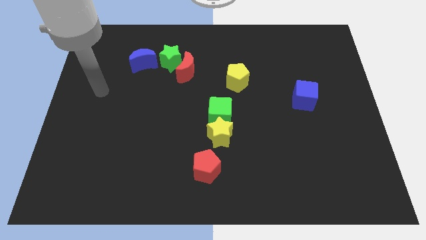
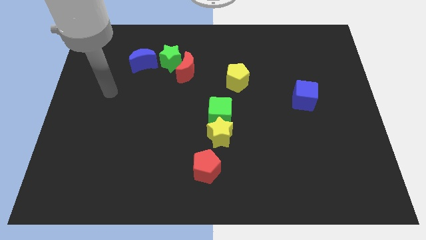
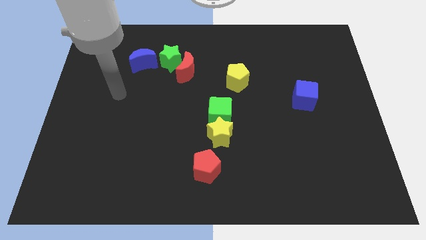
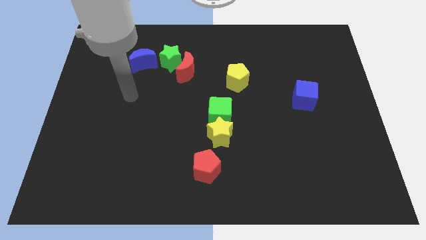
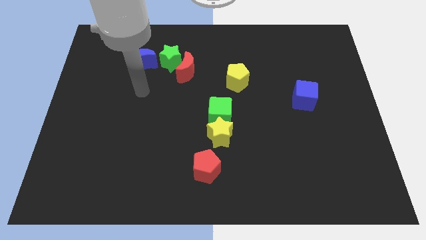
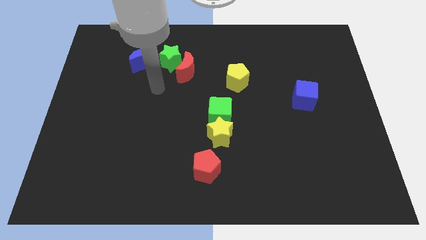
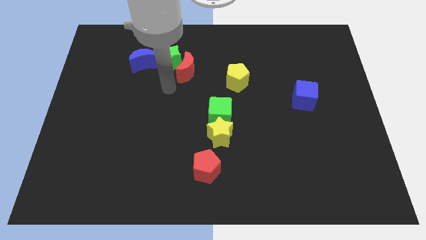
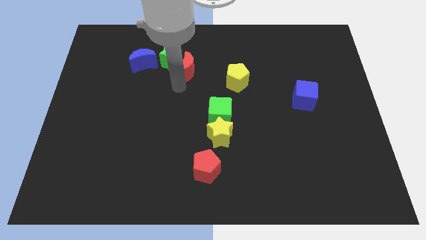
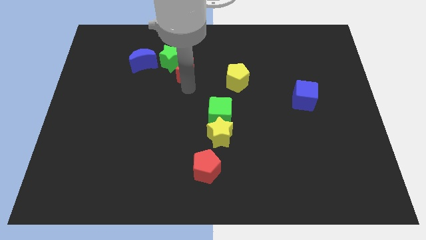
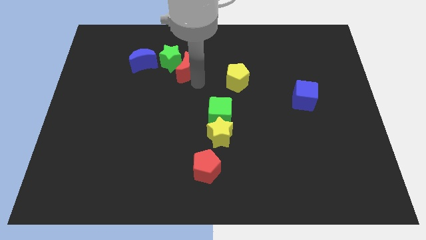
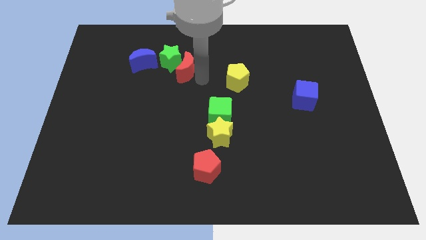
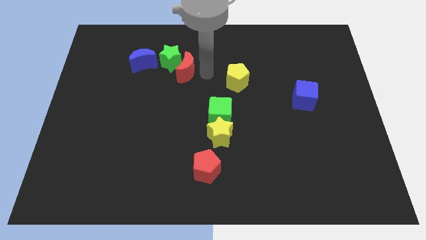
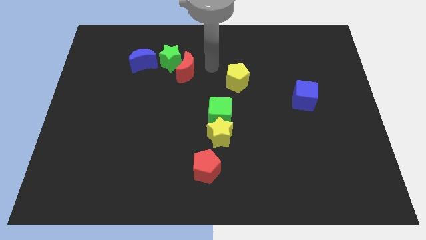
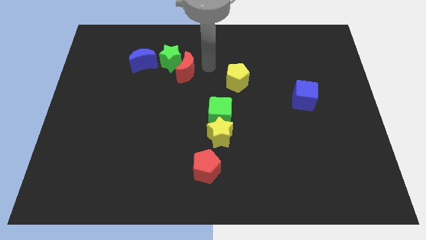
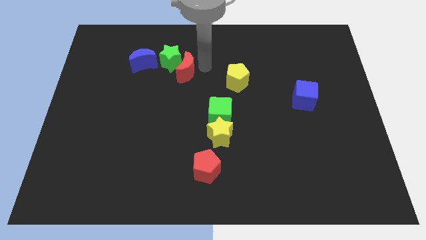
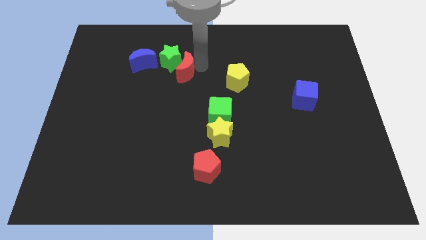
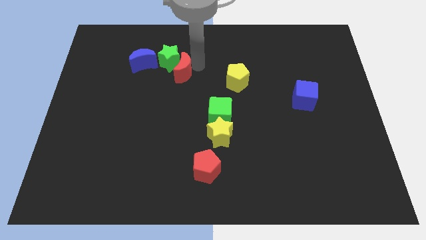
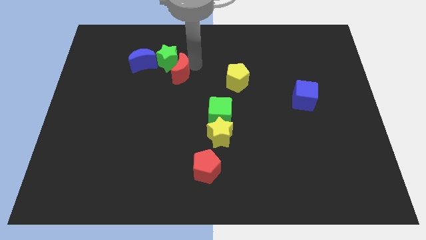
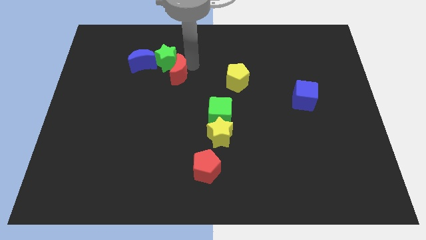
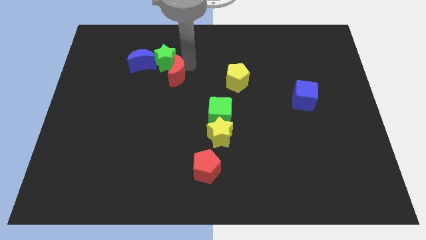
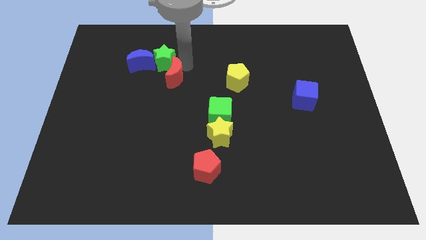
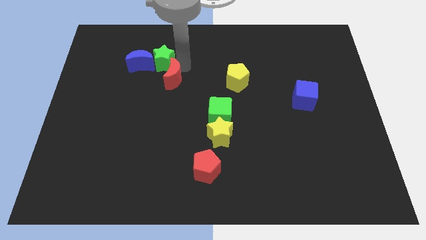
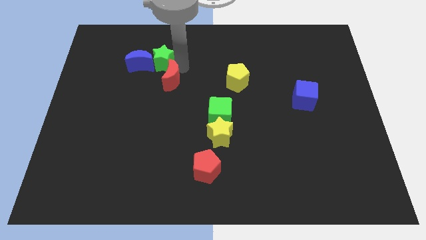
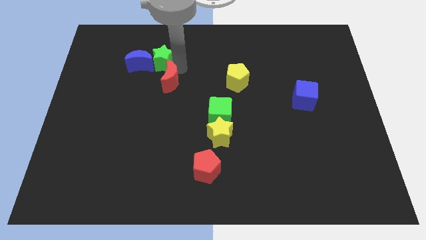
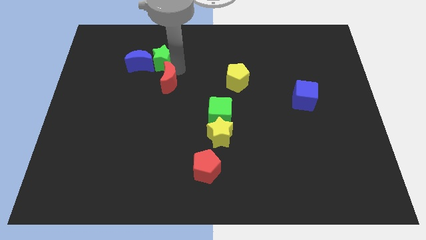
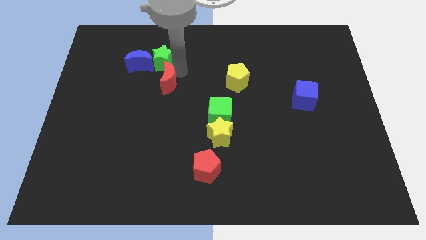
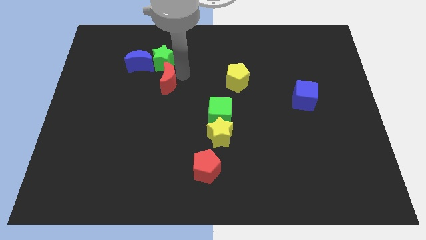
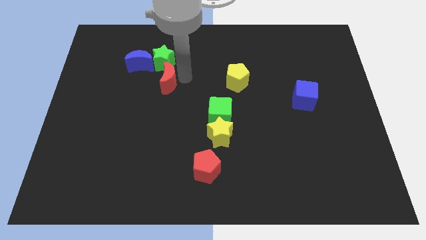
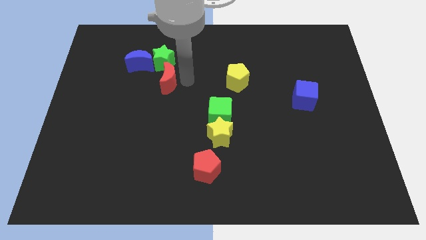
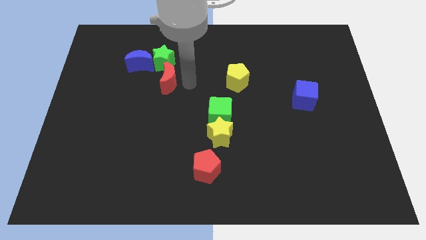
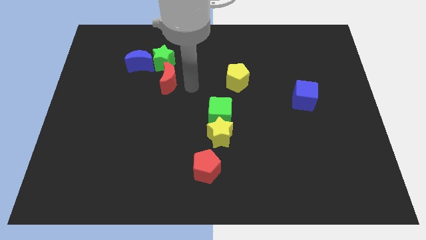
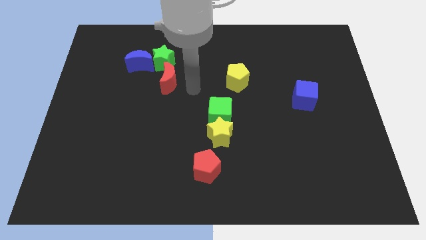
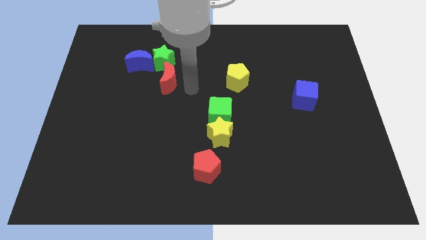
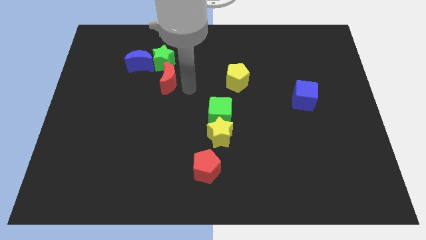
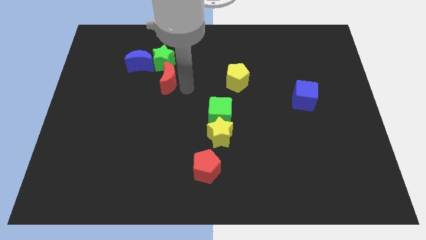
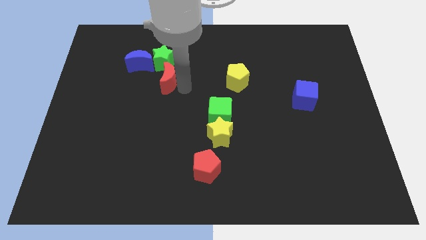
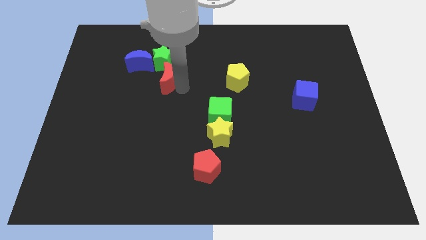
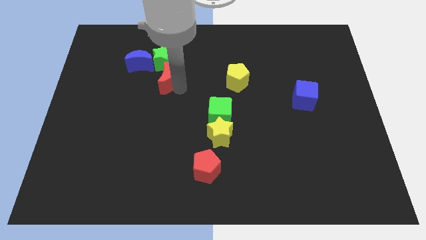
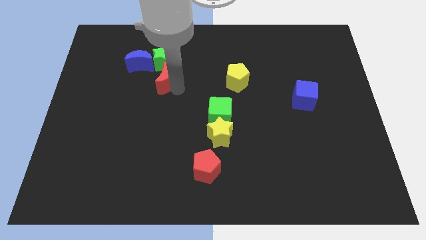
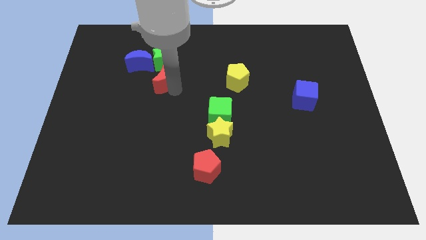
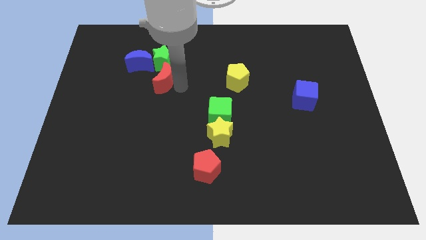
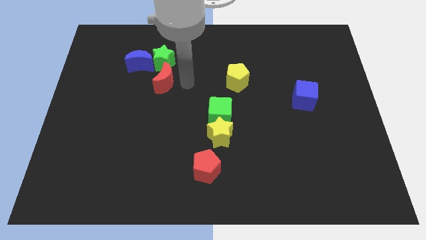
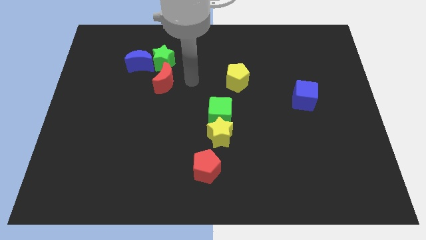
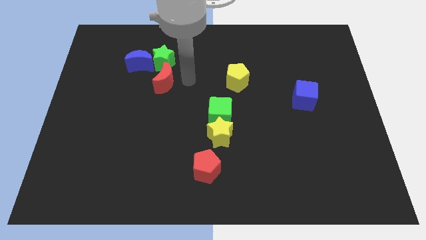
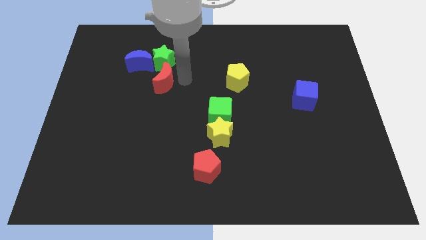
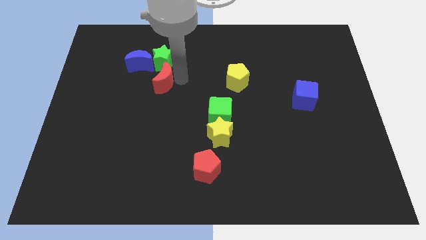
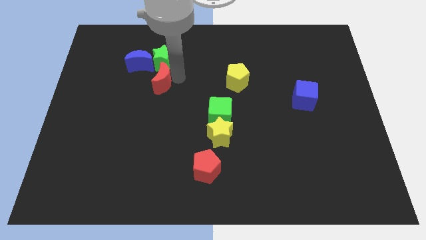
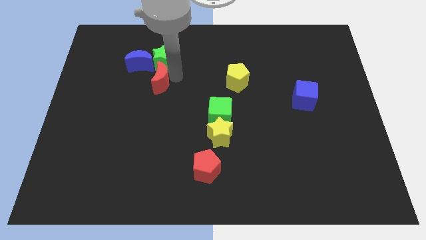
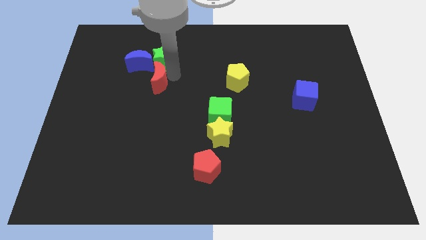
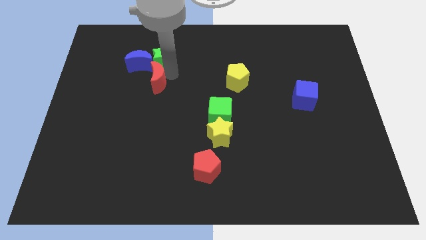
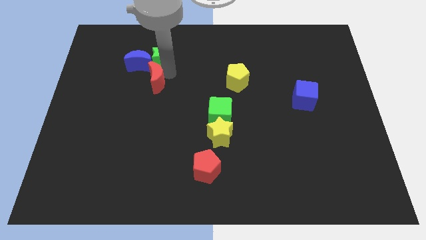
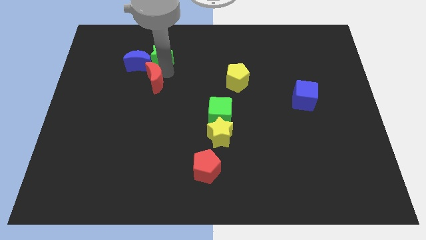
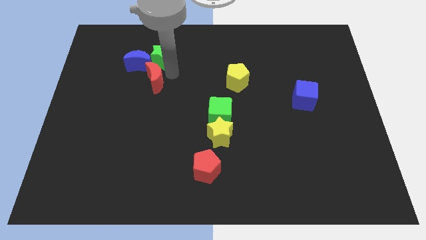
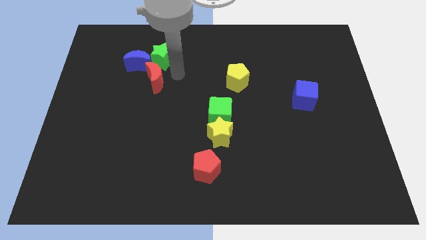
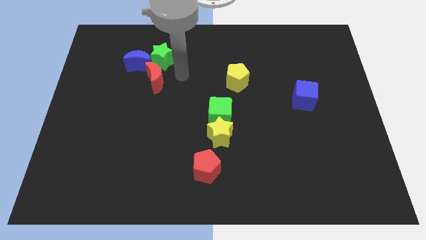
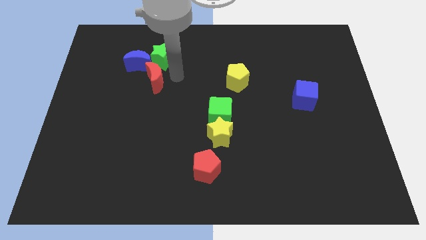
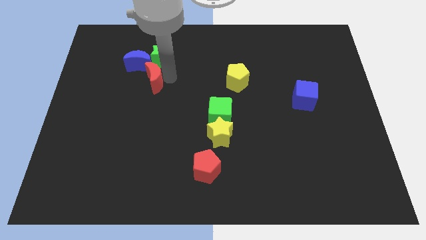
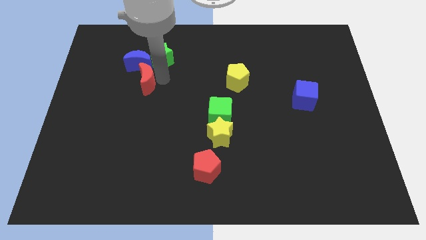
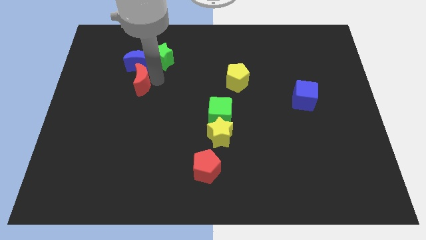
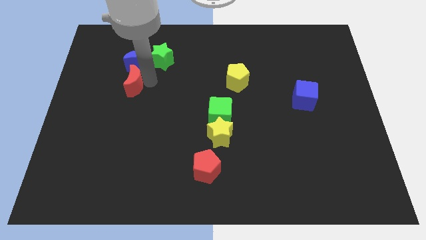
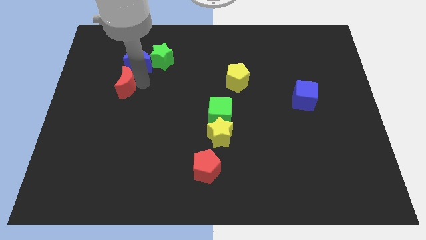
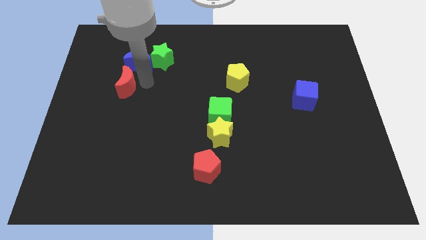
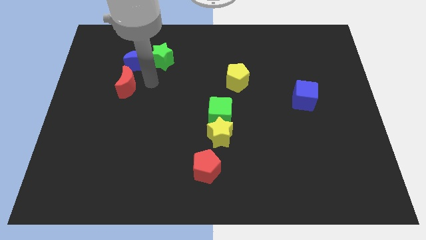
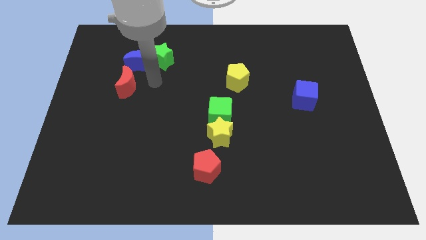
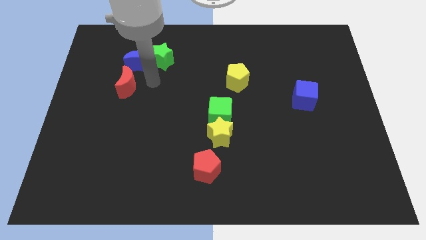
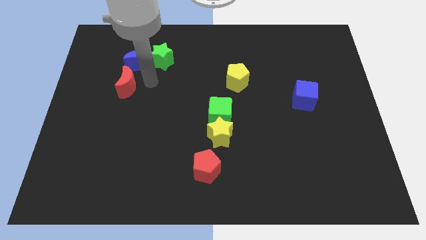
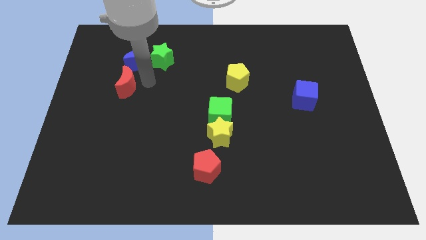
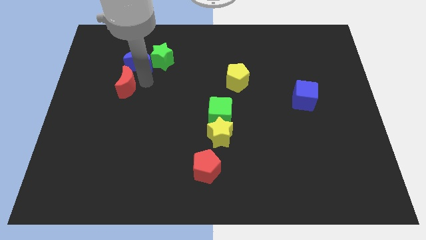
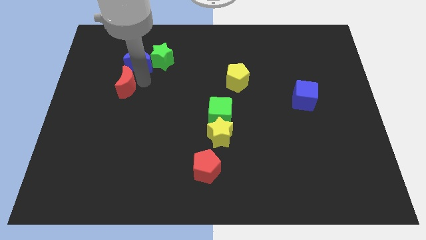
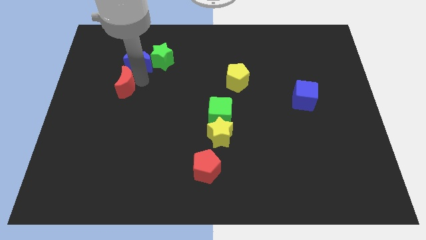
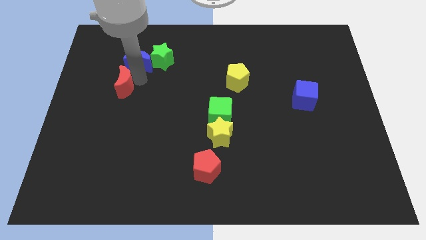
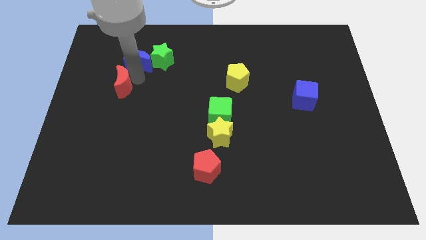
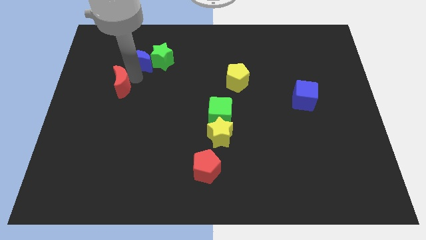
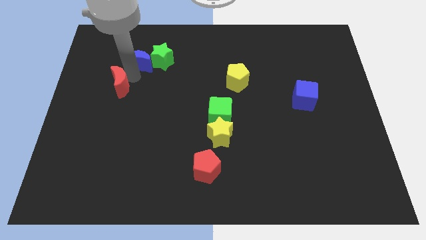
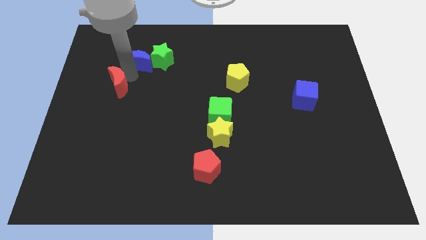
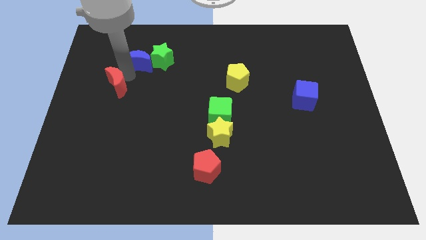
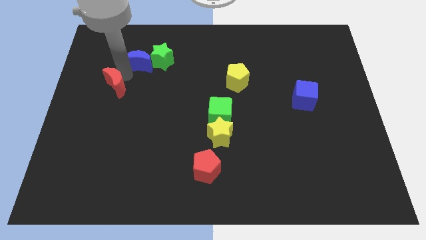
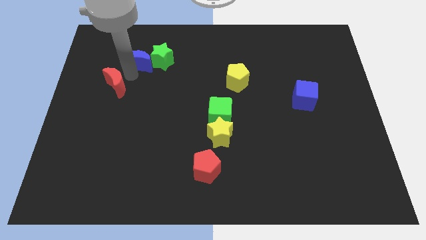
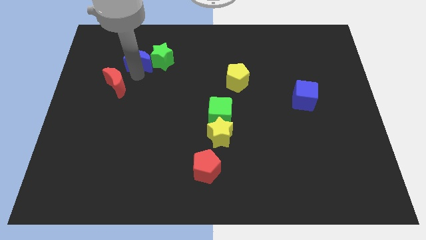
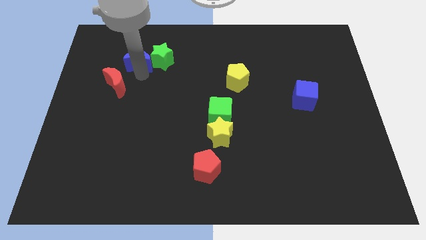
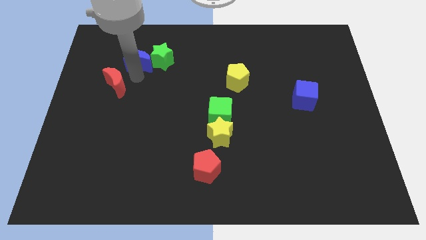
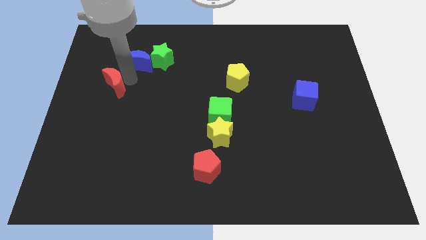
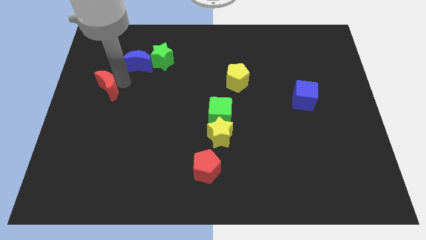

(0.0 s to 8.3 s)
push the red moon to the left side
